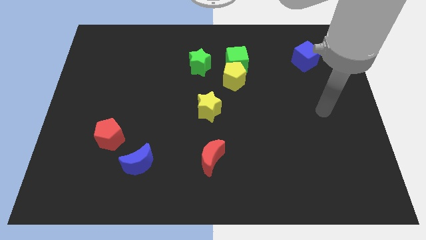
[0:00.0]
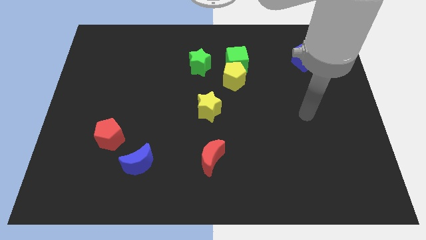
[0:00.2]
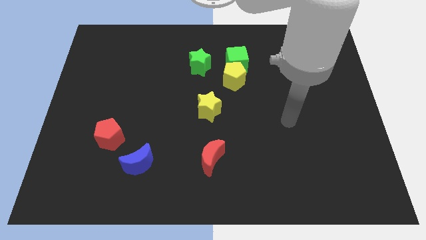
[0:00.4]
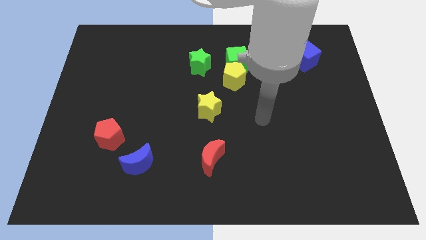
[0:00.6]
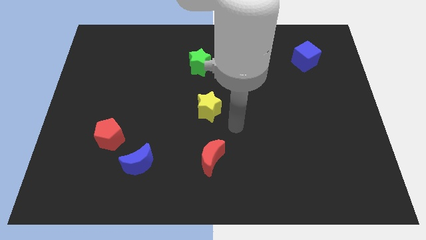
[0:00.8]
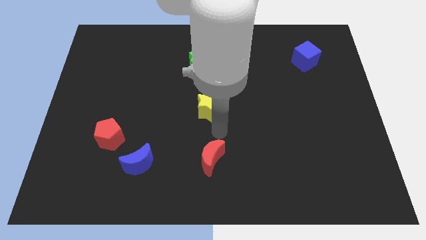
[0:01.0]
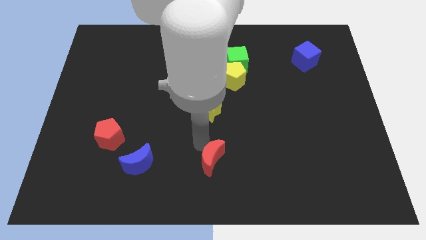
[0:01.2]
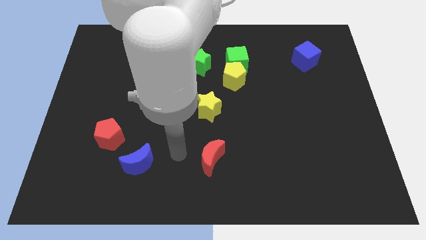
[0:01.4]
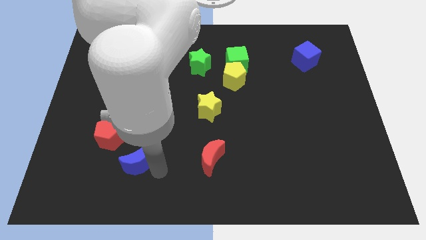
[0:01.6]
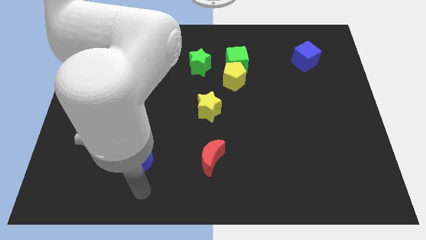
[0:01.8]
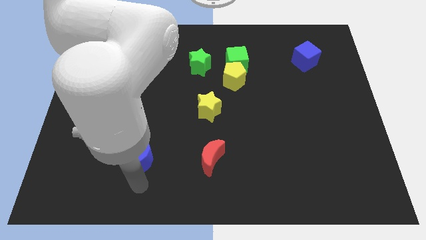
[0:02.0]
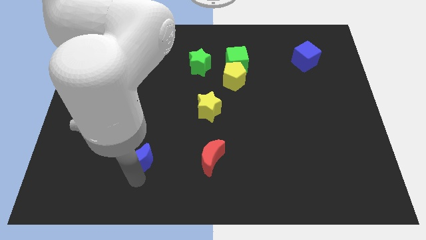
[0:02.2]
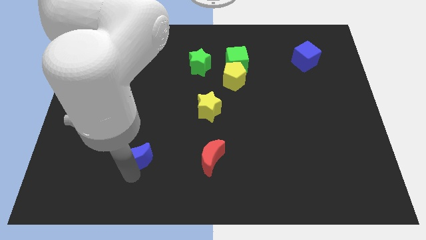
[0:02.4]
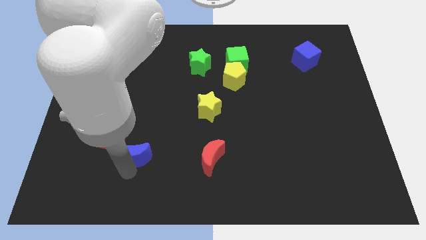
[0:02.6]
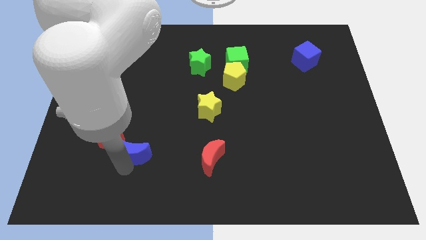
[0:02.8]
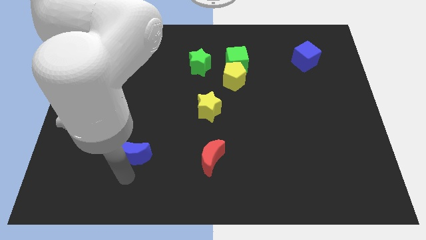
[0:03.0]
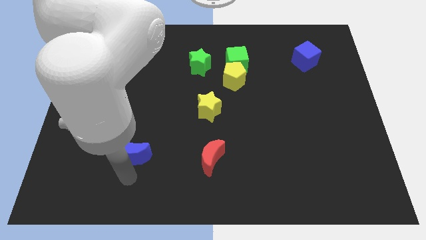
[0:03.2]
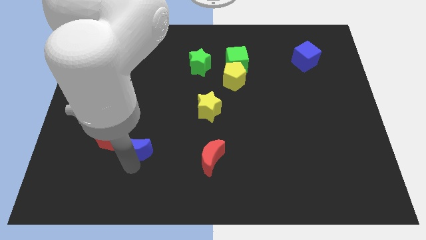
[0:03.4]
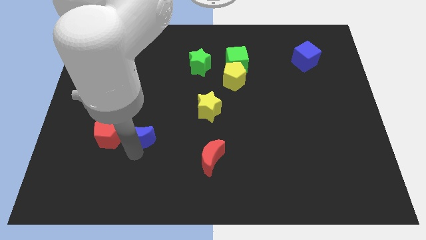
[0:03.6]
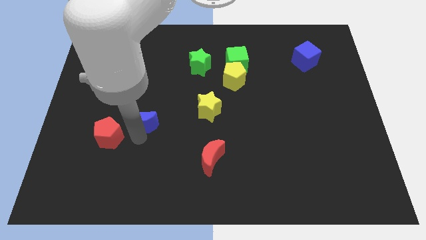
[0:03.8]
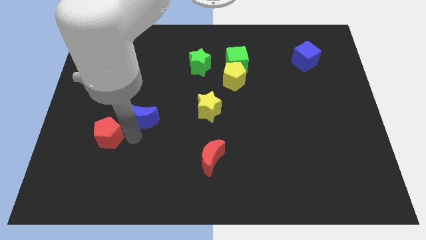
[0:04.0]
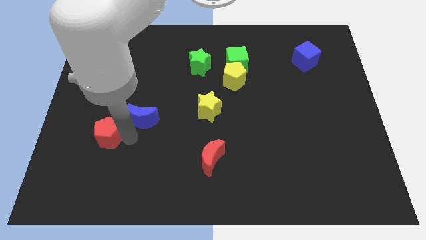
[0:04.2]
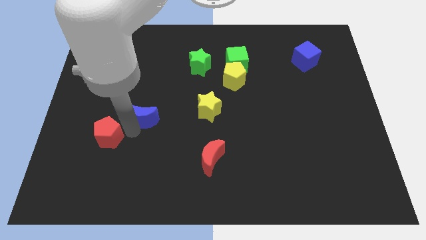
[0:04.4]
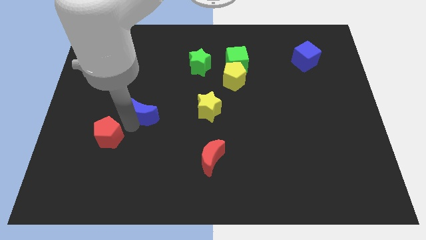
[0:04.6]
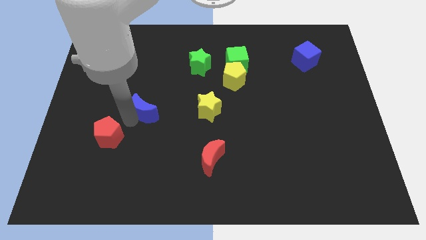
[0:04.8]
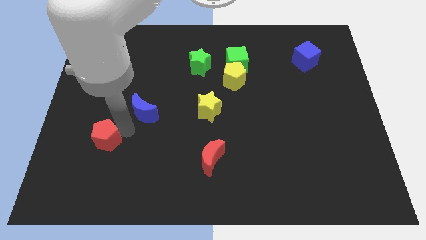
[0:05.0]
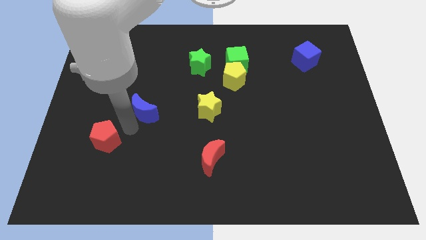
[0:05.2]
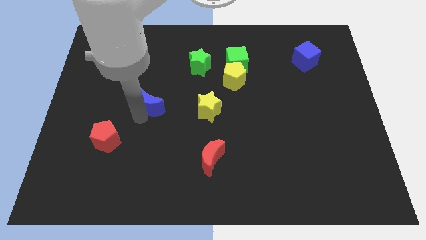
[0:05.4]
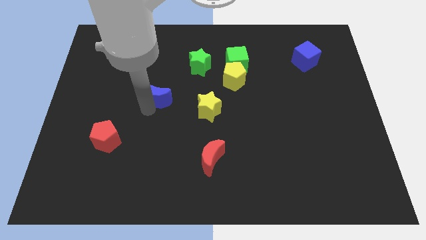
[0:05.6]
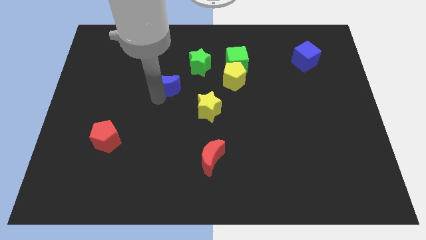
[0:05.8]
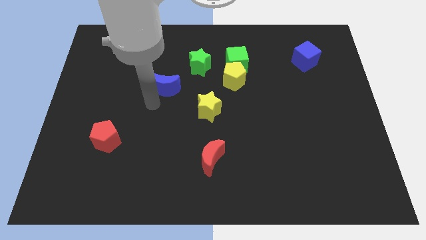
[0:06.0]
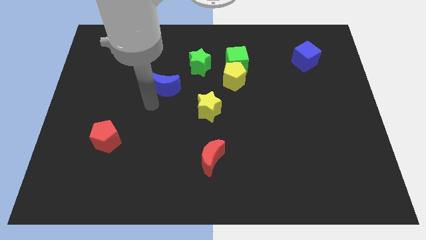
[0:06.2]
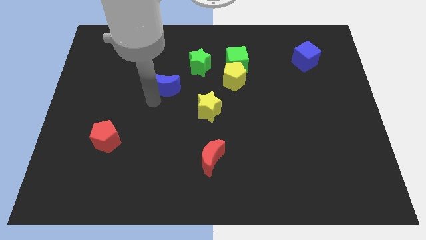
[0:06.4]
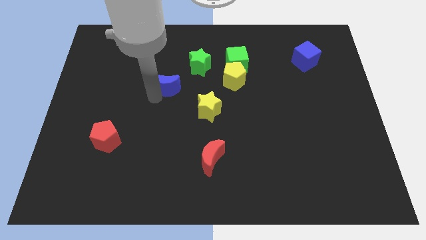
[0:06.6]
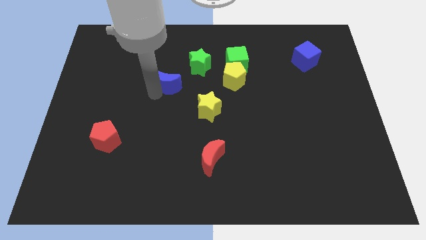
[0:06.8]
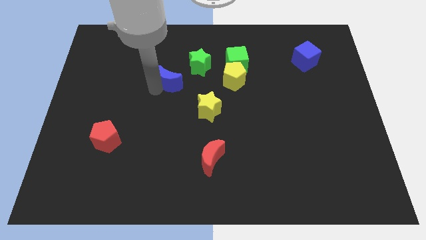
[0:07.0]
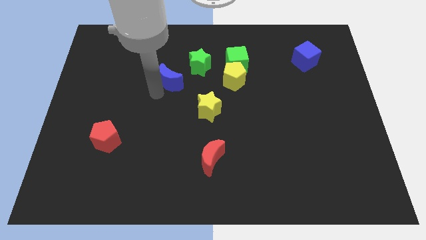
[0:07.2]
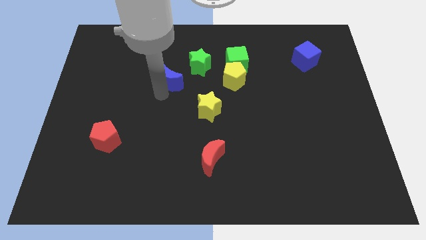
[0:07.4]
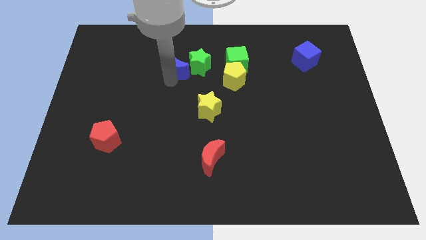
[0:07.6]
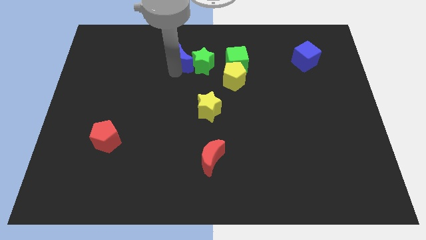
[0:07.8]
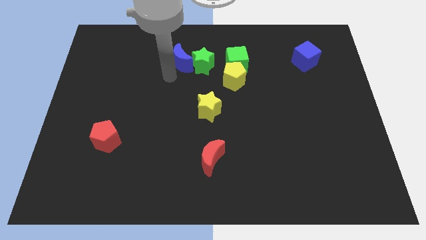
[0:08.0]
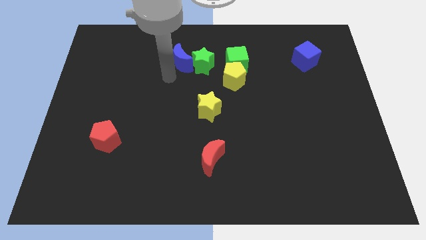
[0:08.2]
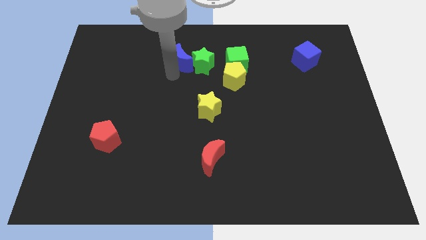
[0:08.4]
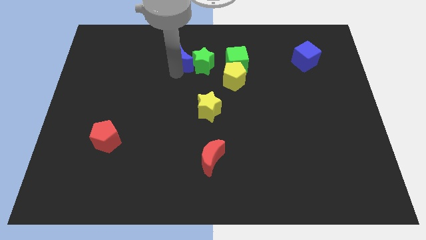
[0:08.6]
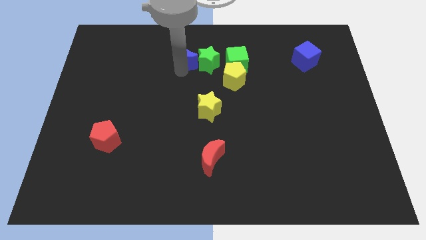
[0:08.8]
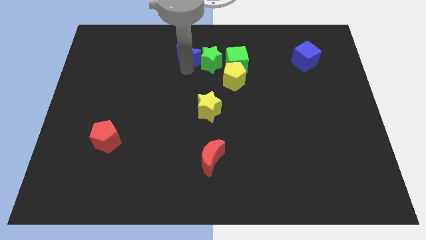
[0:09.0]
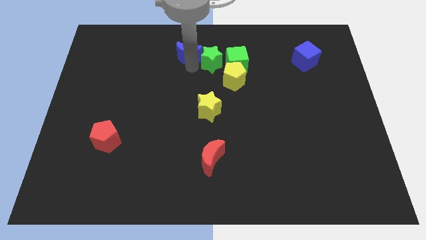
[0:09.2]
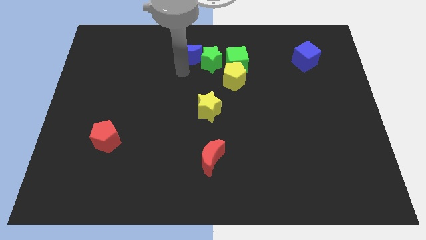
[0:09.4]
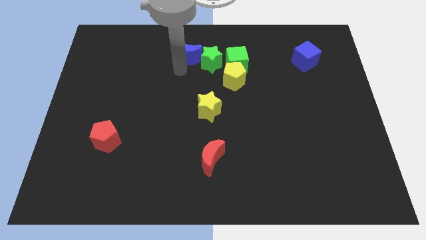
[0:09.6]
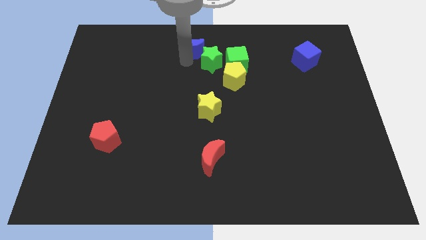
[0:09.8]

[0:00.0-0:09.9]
move the blue moon to the top side
